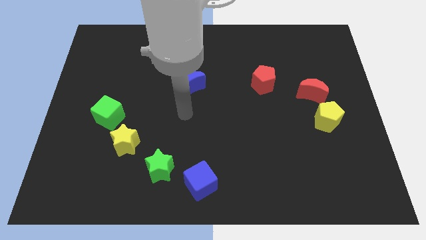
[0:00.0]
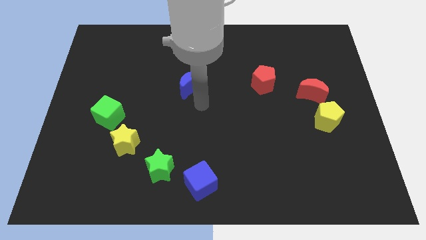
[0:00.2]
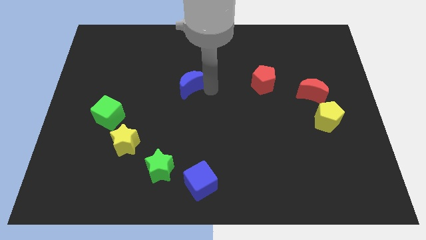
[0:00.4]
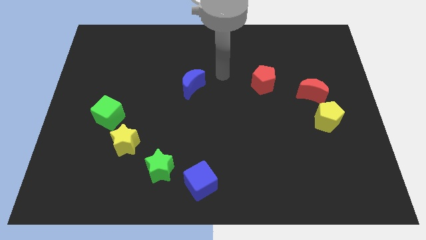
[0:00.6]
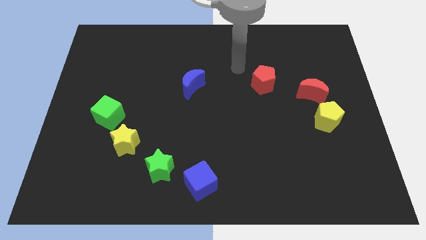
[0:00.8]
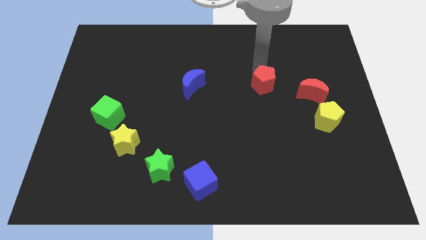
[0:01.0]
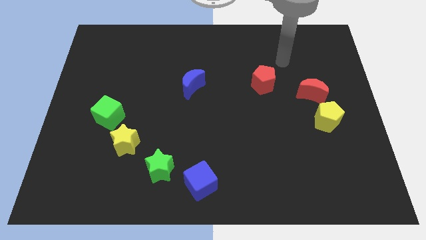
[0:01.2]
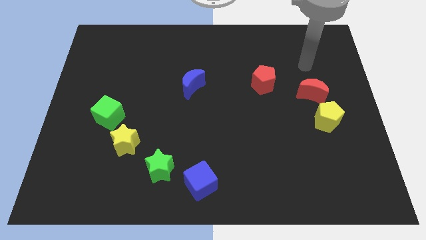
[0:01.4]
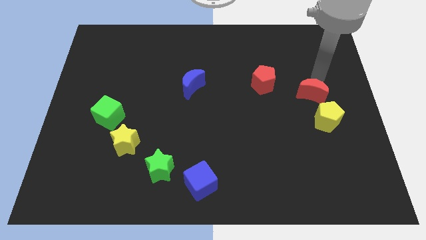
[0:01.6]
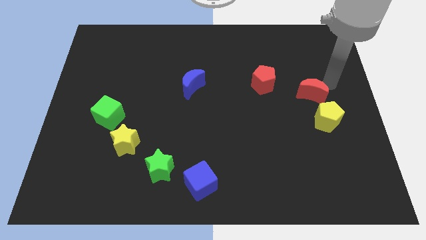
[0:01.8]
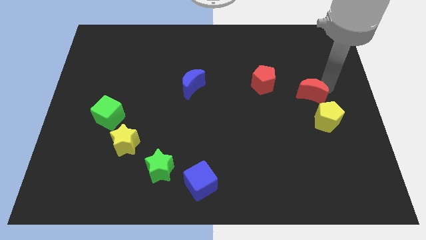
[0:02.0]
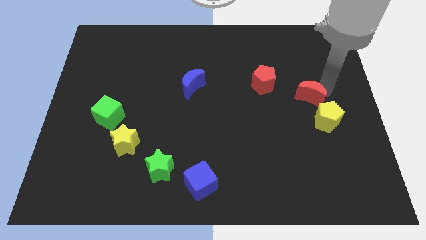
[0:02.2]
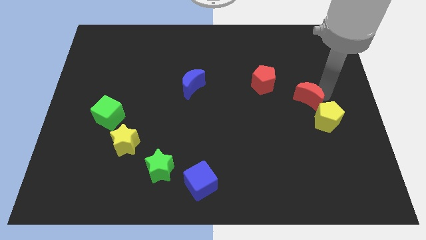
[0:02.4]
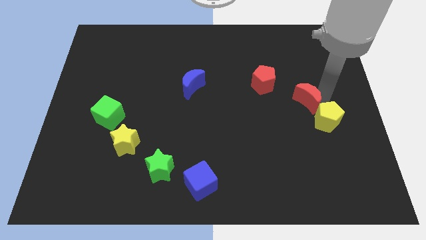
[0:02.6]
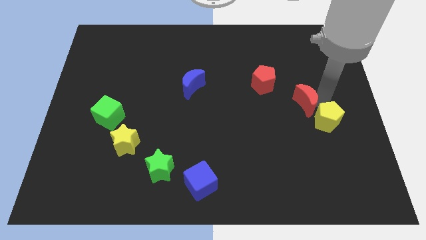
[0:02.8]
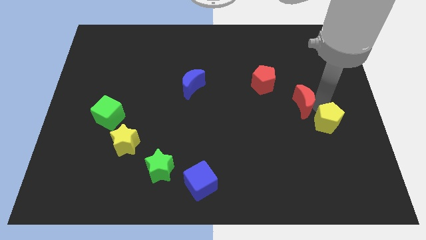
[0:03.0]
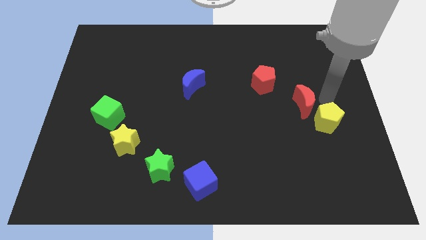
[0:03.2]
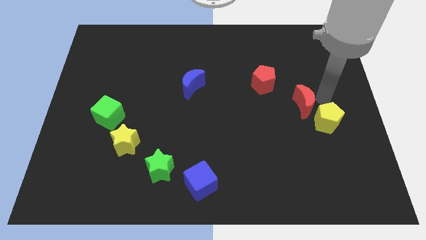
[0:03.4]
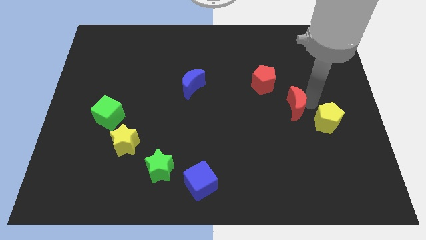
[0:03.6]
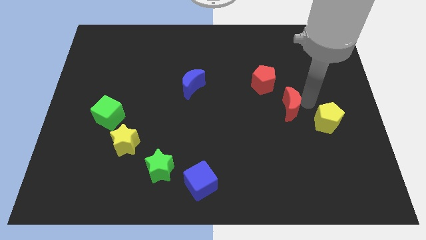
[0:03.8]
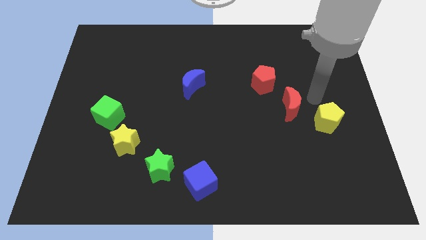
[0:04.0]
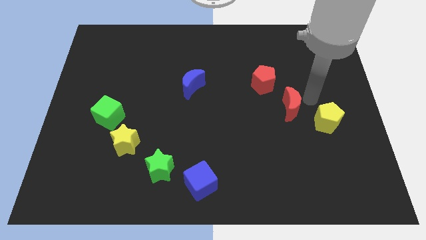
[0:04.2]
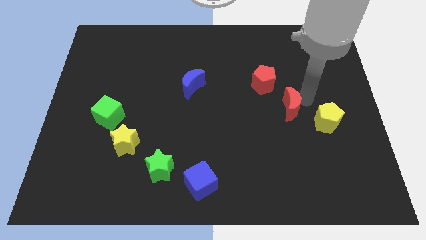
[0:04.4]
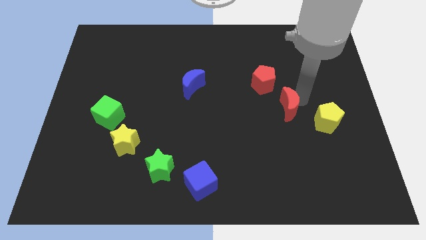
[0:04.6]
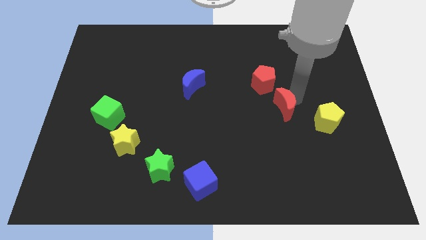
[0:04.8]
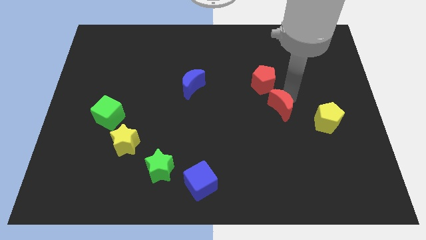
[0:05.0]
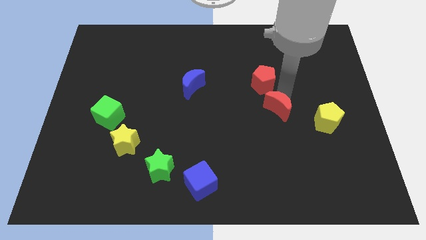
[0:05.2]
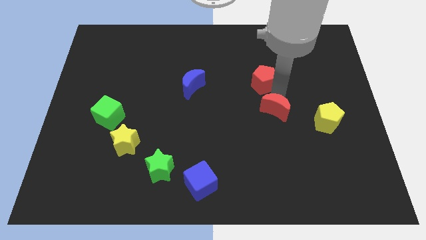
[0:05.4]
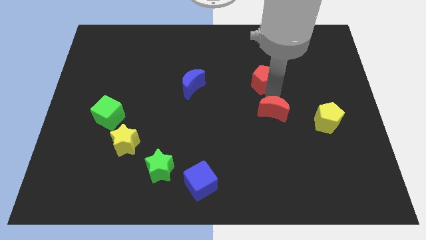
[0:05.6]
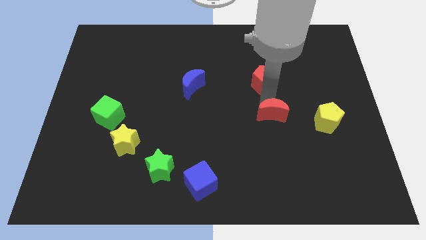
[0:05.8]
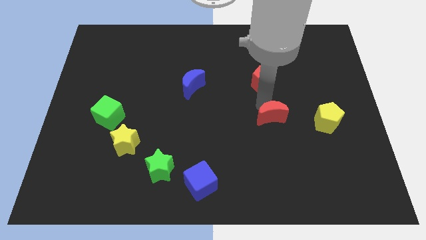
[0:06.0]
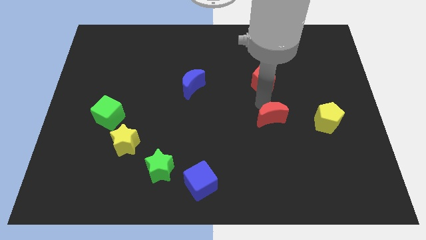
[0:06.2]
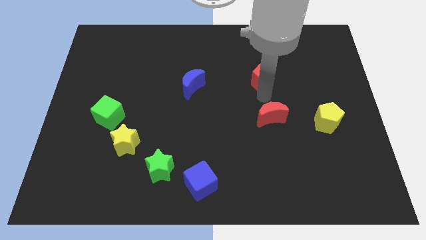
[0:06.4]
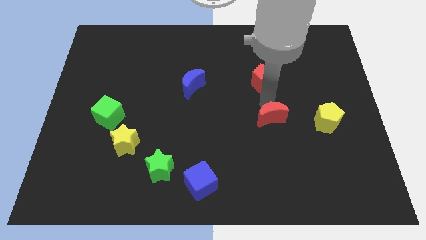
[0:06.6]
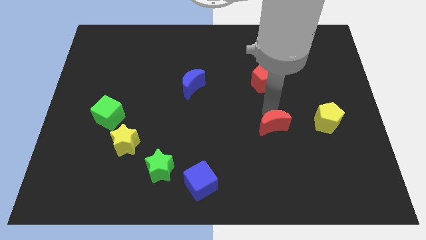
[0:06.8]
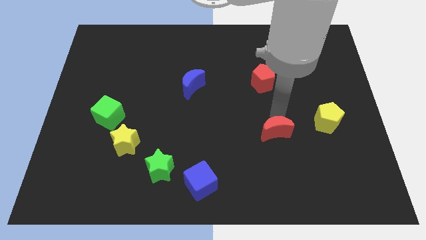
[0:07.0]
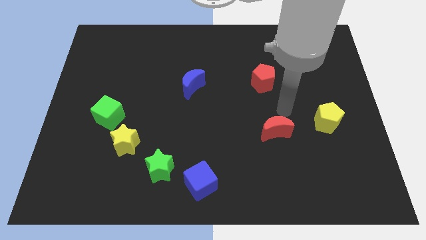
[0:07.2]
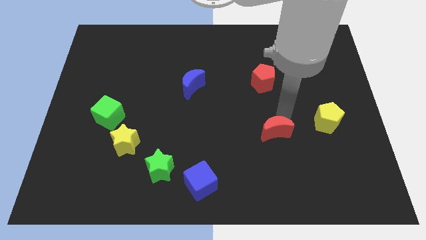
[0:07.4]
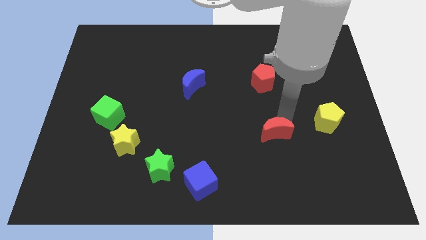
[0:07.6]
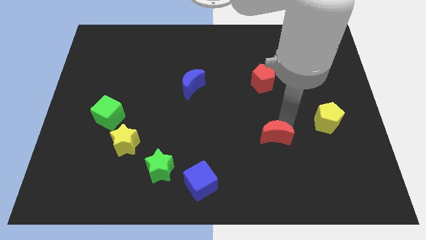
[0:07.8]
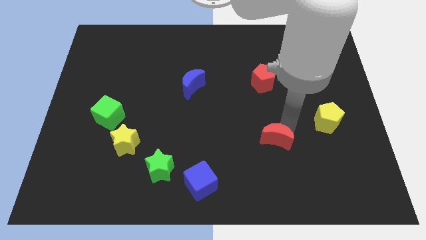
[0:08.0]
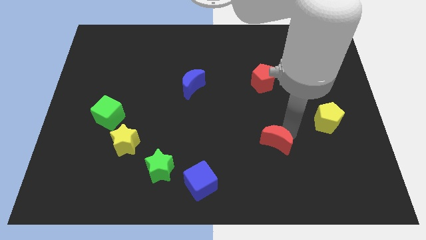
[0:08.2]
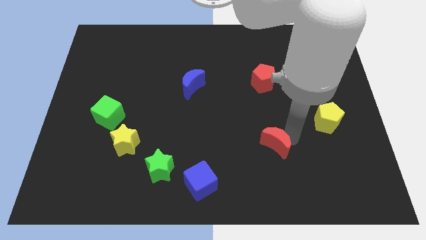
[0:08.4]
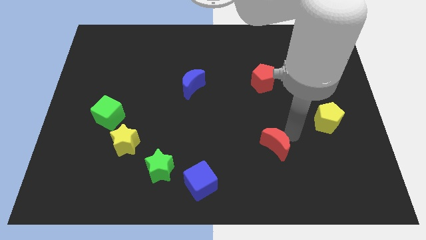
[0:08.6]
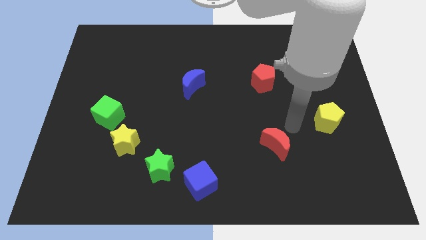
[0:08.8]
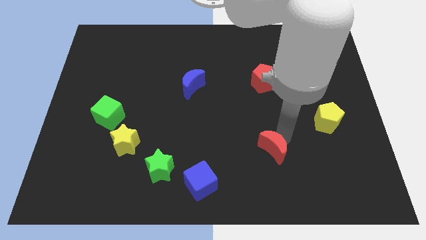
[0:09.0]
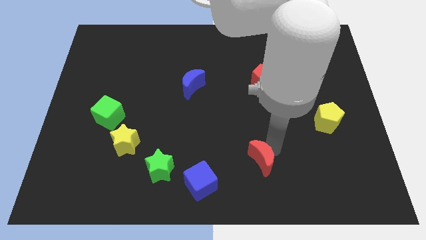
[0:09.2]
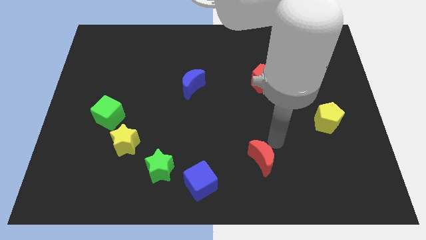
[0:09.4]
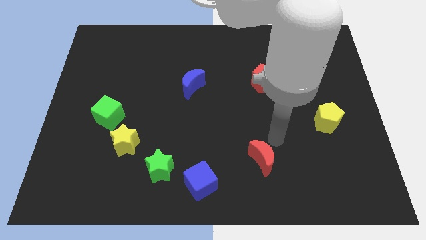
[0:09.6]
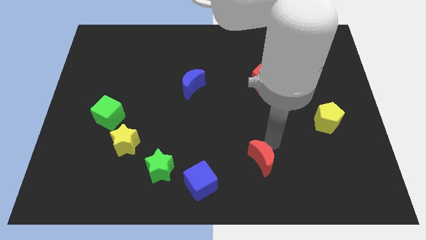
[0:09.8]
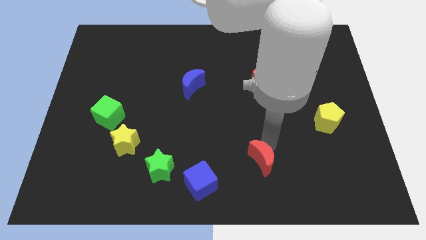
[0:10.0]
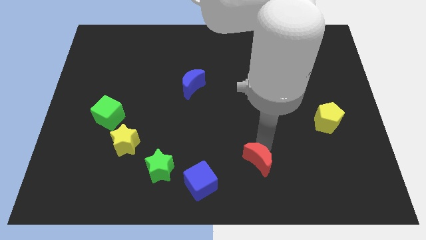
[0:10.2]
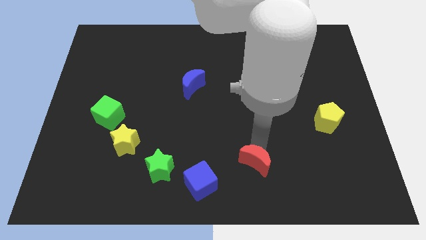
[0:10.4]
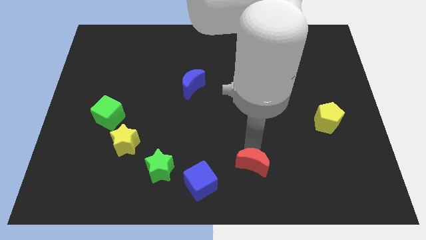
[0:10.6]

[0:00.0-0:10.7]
move the red moon to the bottom side
